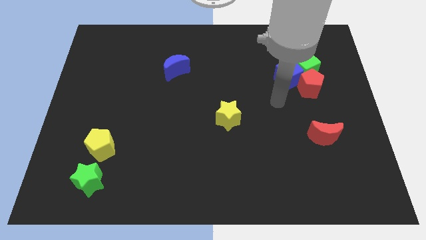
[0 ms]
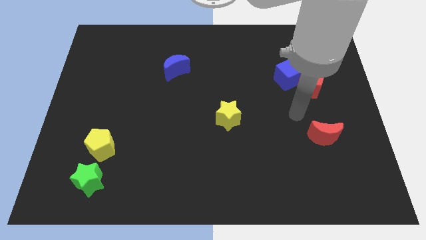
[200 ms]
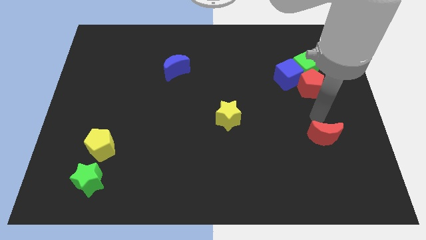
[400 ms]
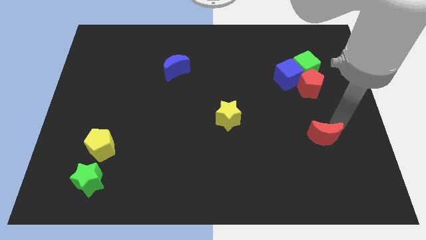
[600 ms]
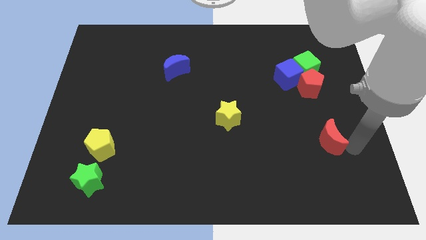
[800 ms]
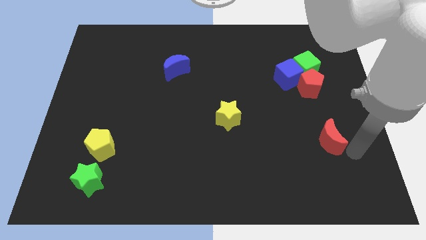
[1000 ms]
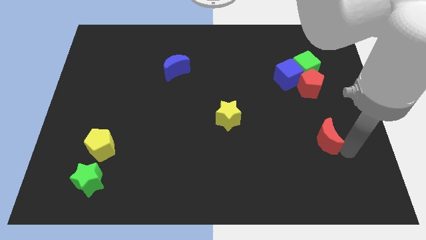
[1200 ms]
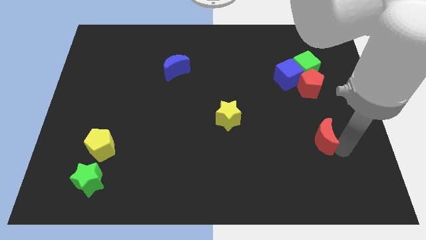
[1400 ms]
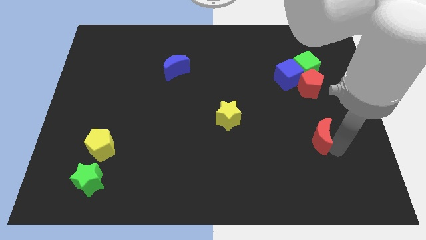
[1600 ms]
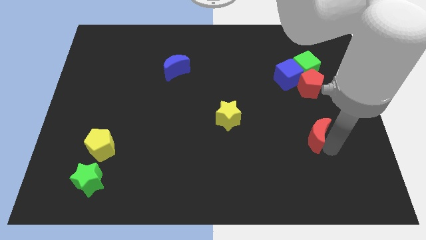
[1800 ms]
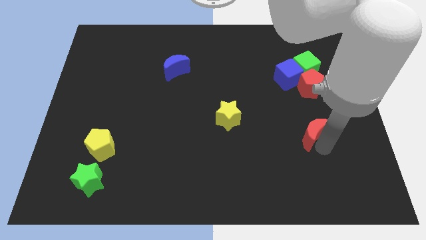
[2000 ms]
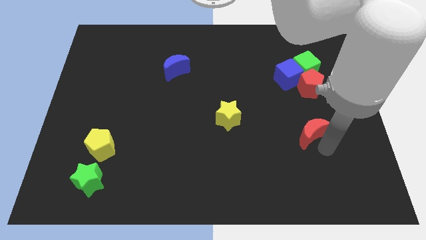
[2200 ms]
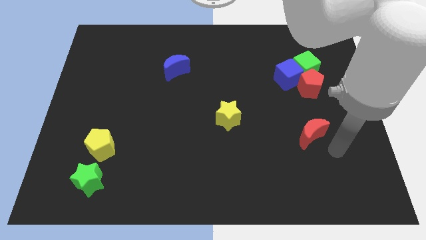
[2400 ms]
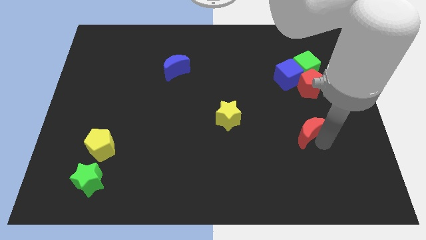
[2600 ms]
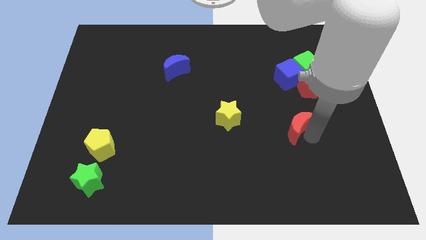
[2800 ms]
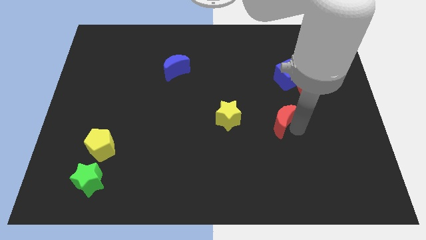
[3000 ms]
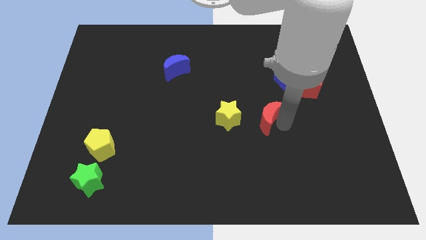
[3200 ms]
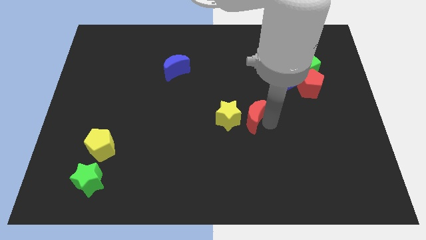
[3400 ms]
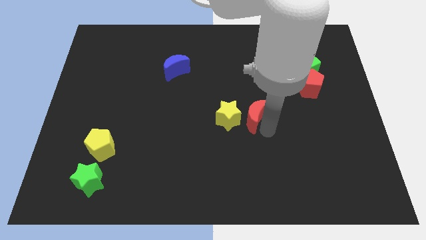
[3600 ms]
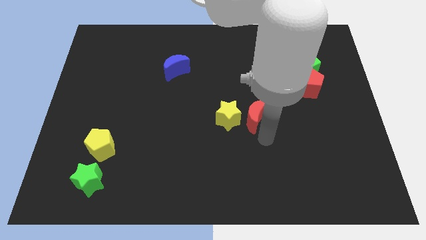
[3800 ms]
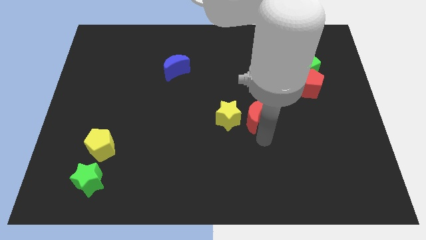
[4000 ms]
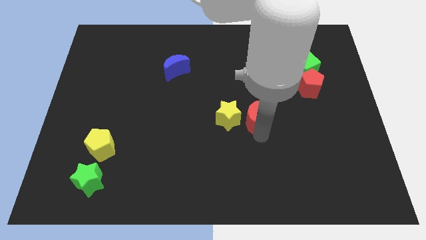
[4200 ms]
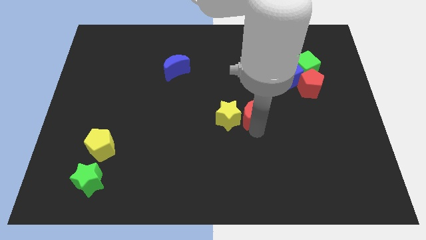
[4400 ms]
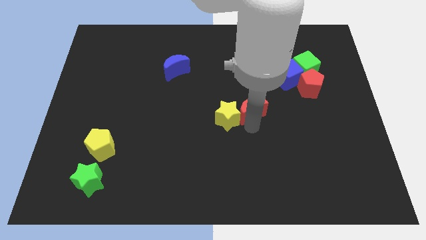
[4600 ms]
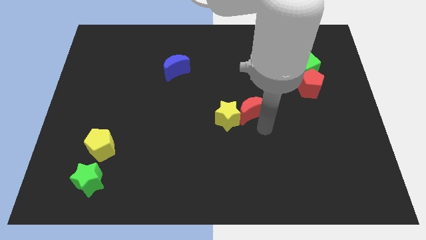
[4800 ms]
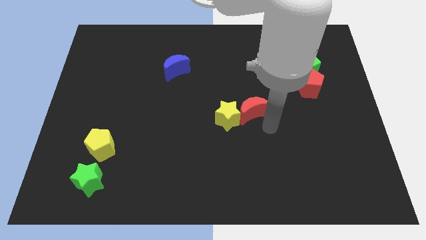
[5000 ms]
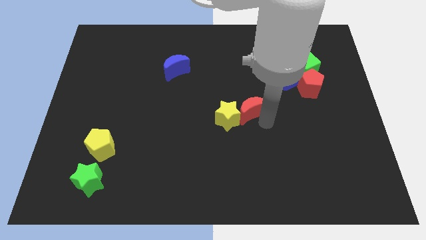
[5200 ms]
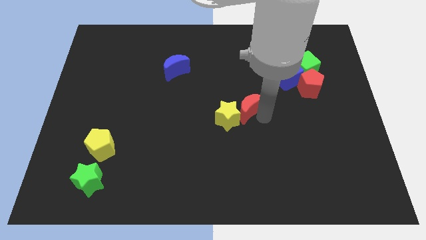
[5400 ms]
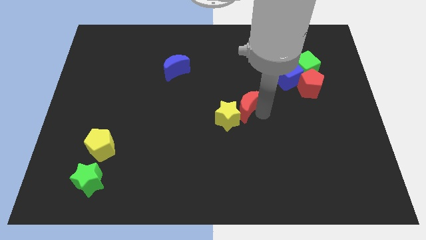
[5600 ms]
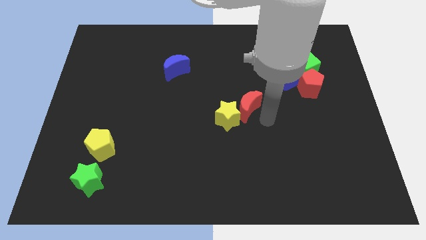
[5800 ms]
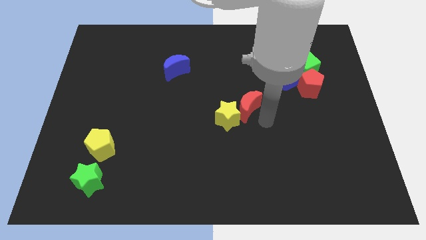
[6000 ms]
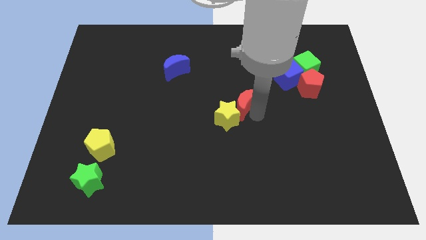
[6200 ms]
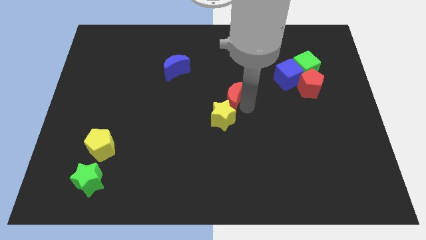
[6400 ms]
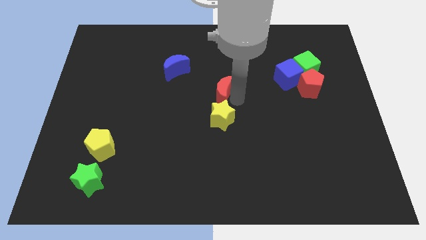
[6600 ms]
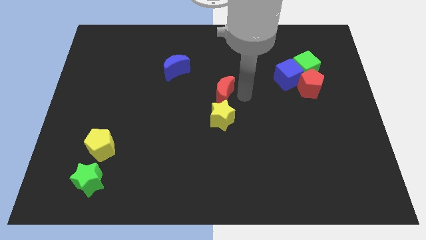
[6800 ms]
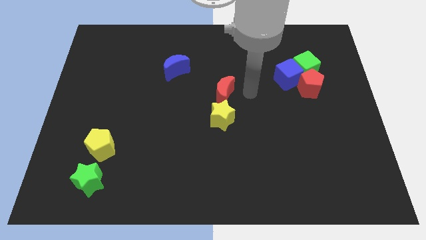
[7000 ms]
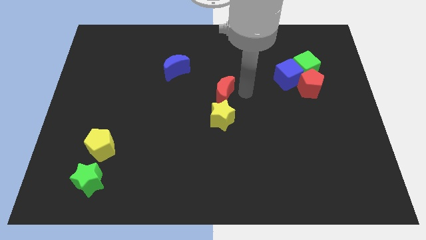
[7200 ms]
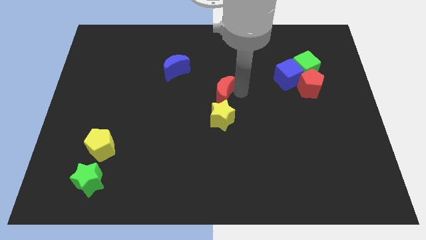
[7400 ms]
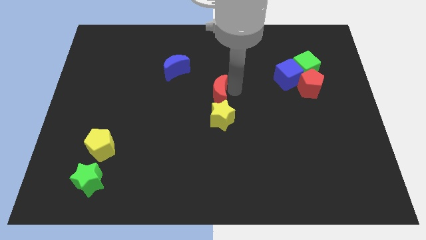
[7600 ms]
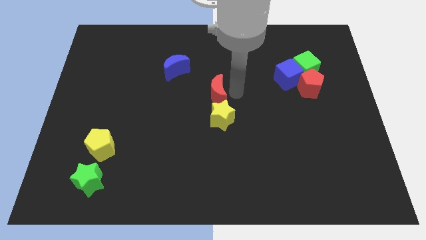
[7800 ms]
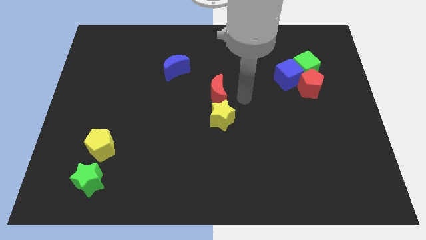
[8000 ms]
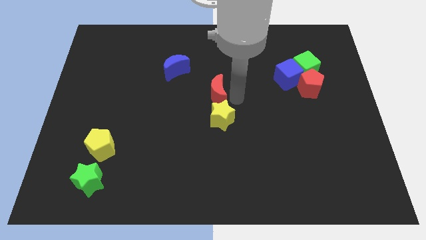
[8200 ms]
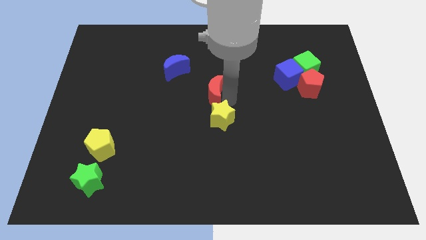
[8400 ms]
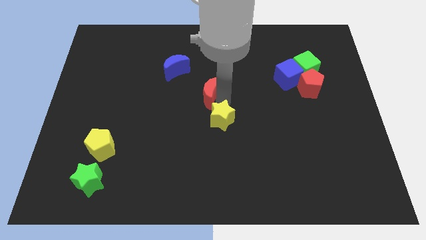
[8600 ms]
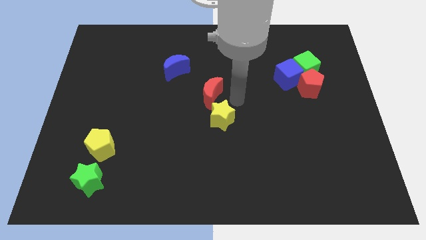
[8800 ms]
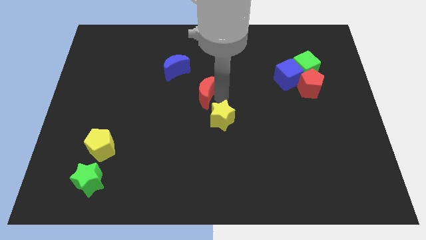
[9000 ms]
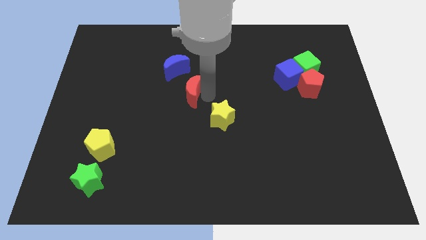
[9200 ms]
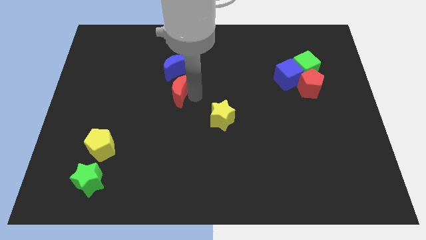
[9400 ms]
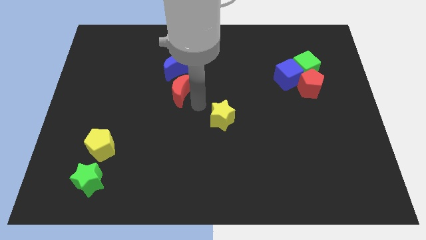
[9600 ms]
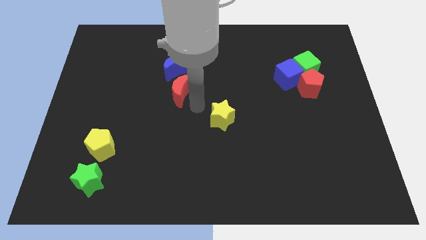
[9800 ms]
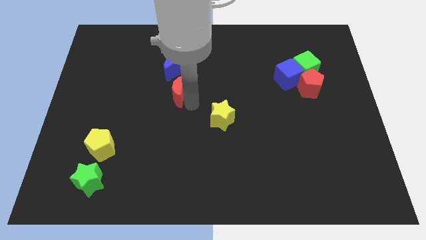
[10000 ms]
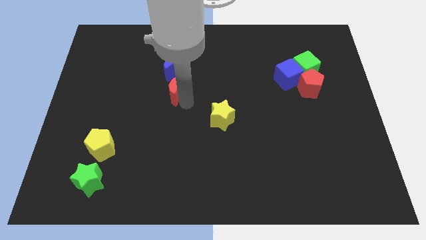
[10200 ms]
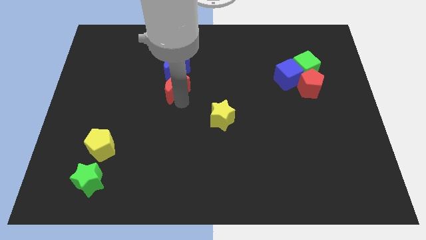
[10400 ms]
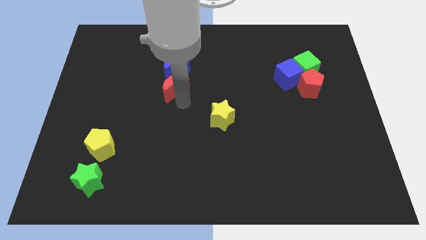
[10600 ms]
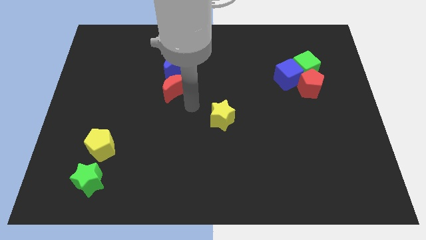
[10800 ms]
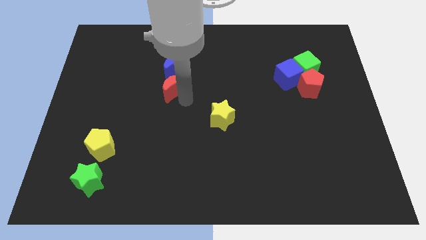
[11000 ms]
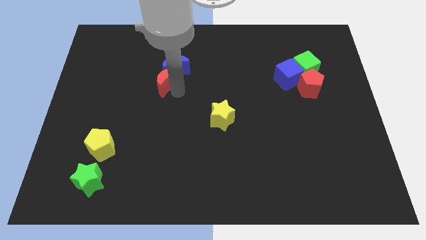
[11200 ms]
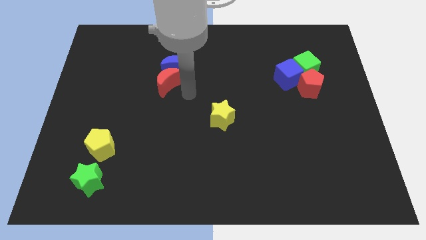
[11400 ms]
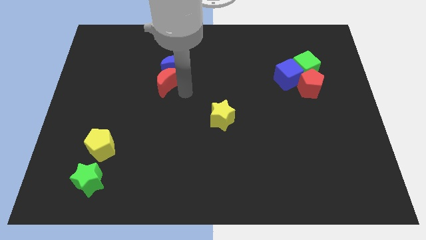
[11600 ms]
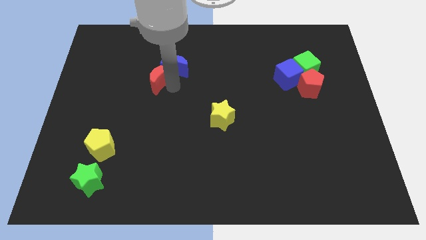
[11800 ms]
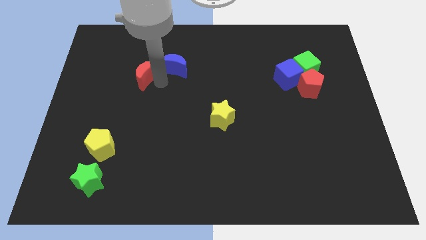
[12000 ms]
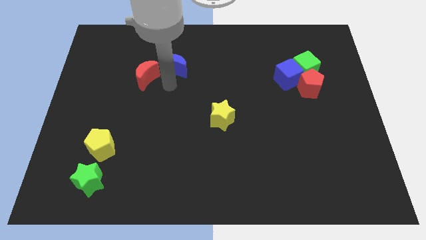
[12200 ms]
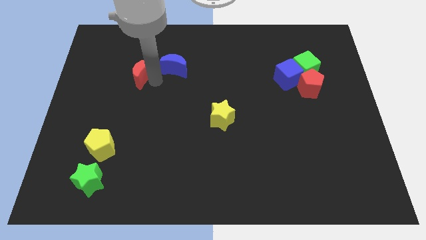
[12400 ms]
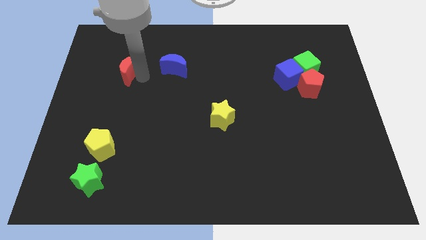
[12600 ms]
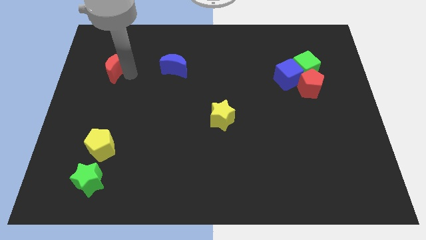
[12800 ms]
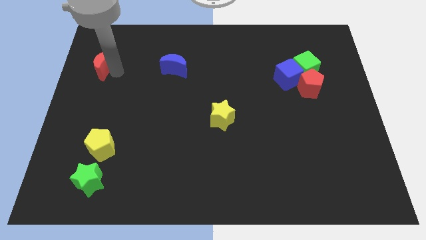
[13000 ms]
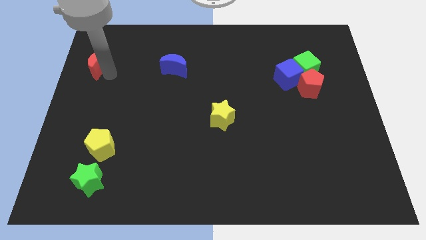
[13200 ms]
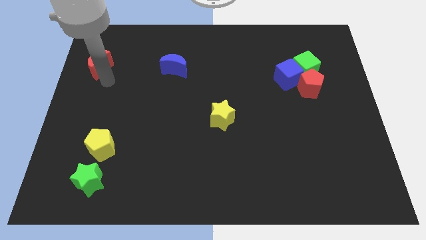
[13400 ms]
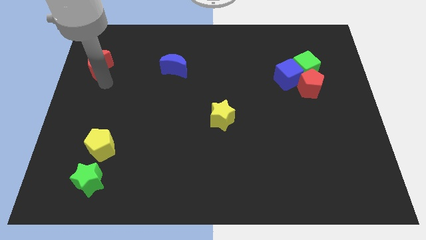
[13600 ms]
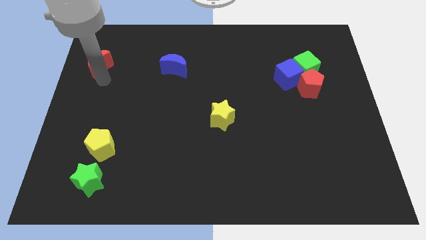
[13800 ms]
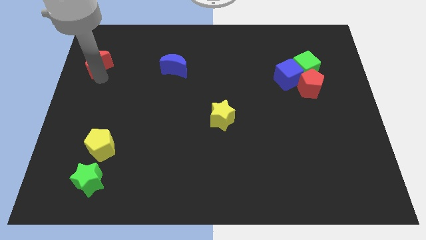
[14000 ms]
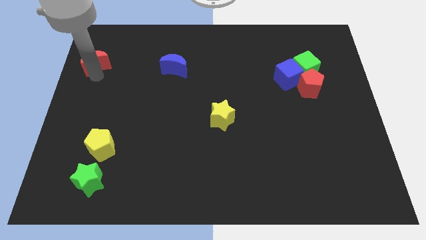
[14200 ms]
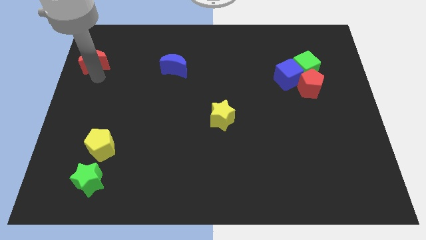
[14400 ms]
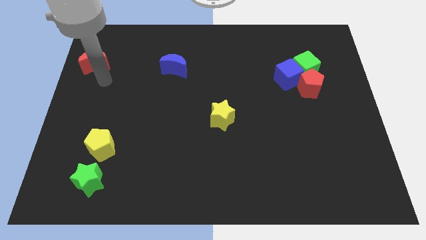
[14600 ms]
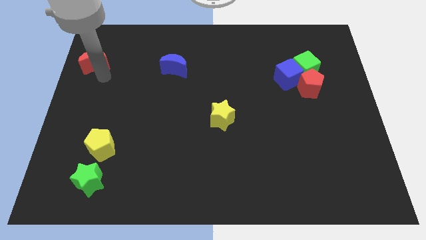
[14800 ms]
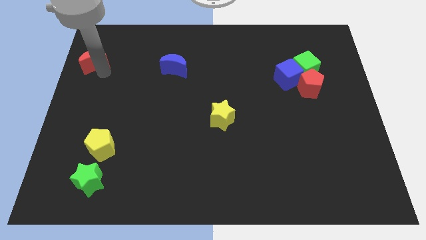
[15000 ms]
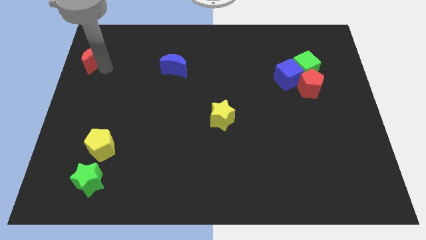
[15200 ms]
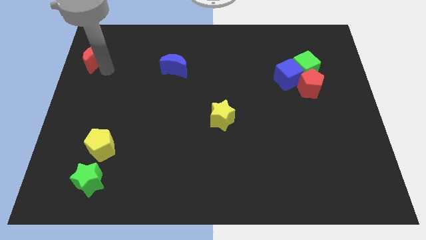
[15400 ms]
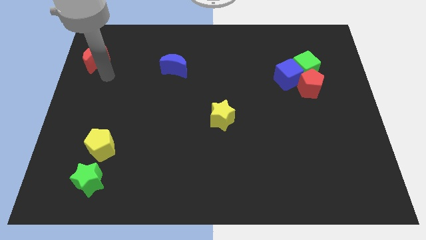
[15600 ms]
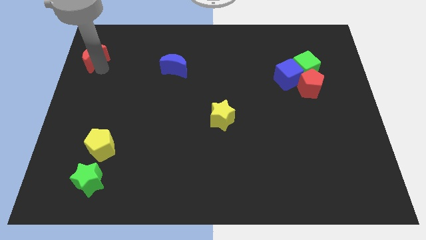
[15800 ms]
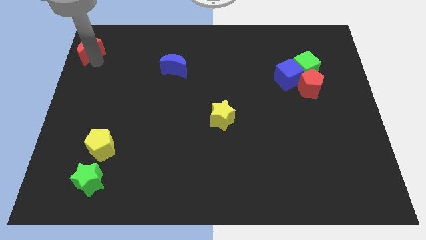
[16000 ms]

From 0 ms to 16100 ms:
move the red moon to the upper left corner
